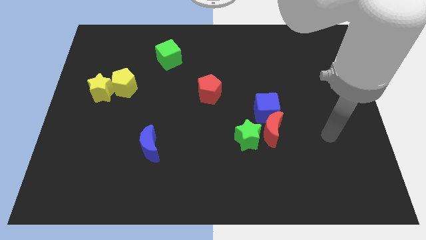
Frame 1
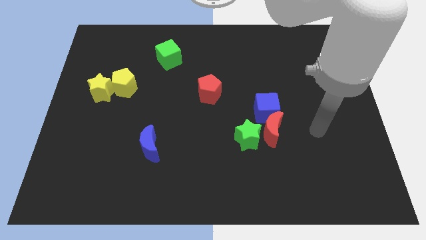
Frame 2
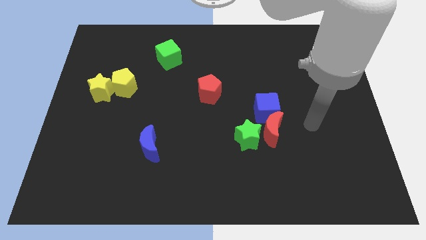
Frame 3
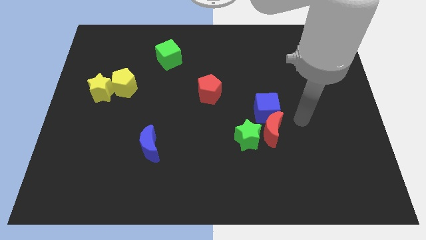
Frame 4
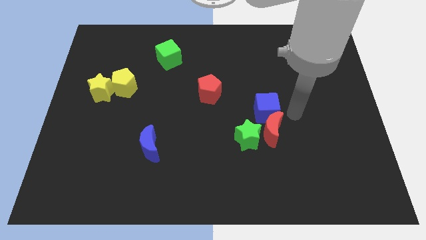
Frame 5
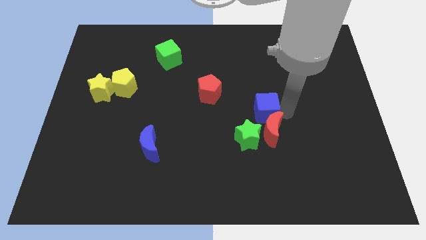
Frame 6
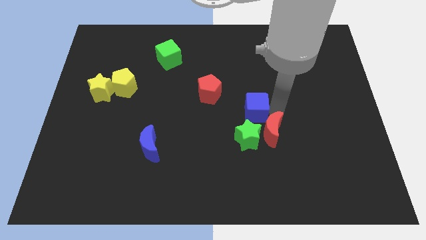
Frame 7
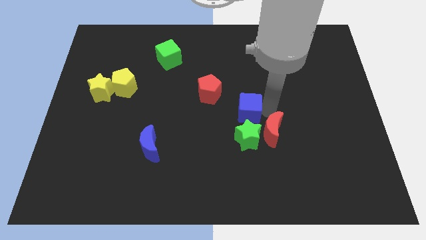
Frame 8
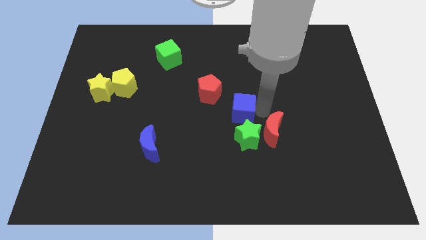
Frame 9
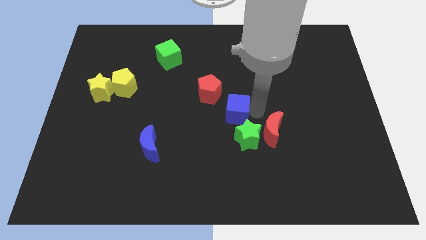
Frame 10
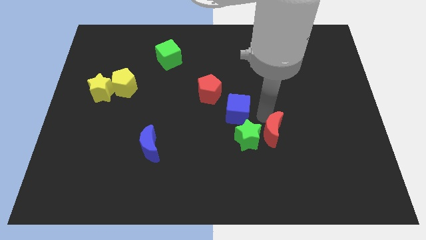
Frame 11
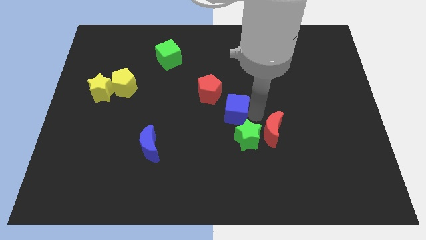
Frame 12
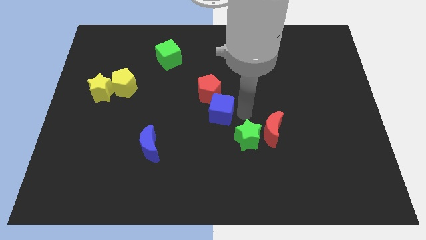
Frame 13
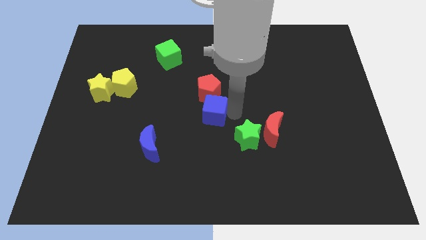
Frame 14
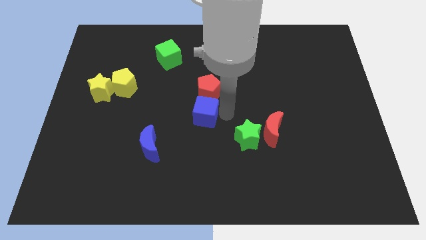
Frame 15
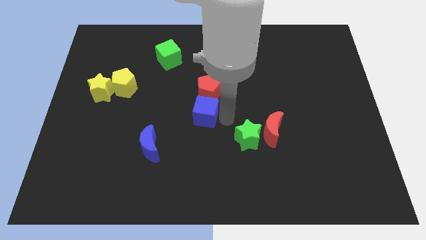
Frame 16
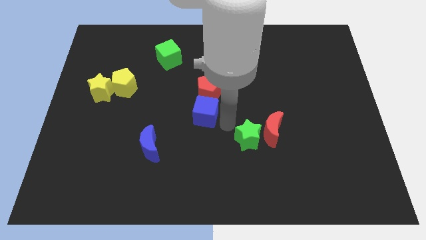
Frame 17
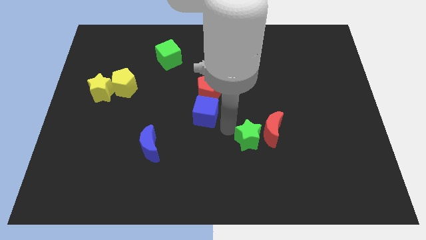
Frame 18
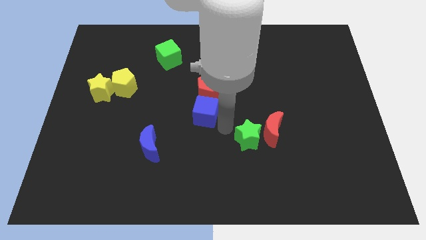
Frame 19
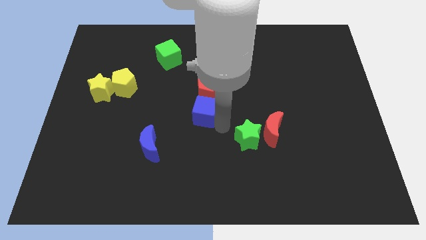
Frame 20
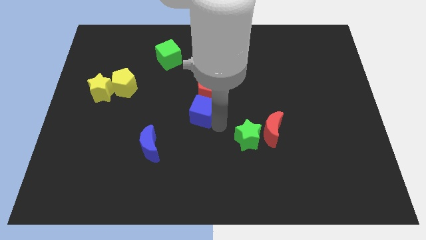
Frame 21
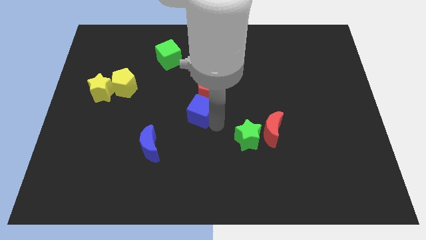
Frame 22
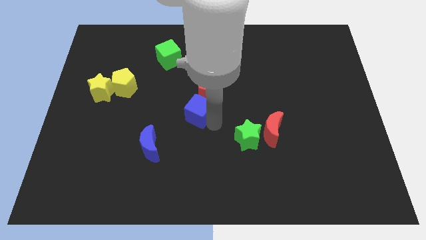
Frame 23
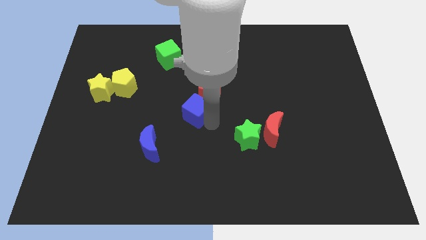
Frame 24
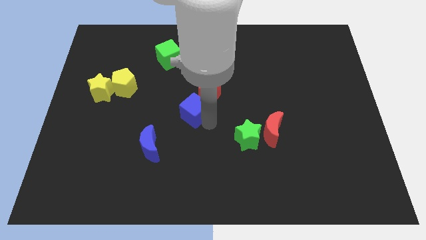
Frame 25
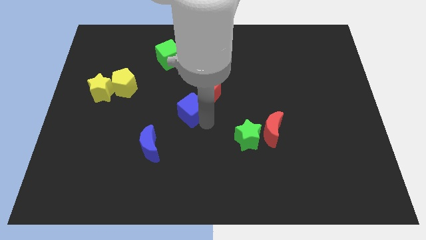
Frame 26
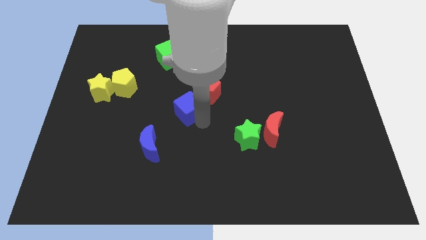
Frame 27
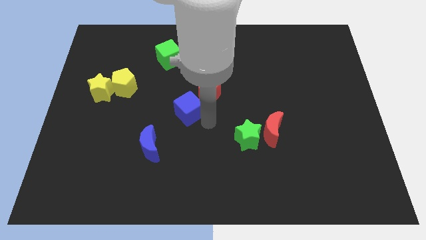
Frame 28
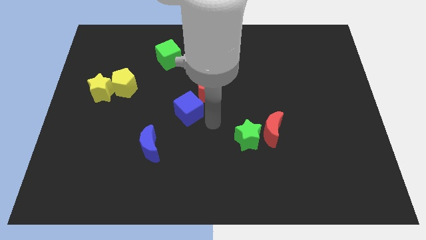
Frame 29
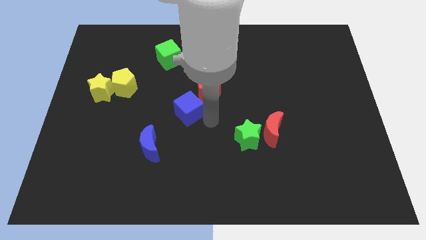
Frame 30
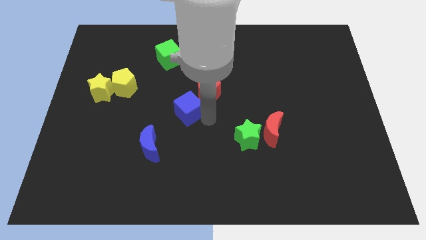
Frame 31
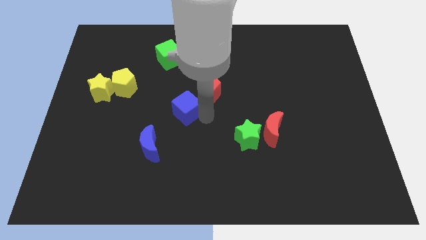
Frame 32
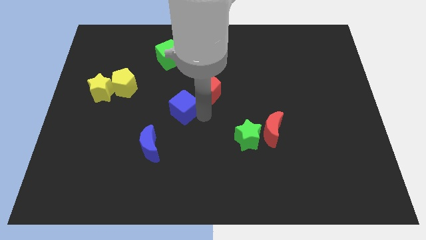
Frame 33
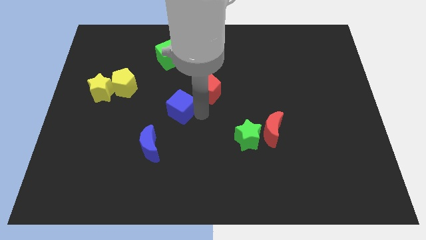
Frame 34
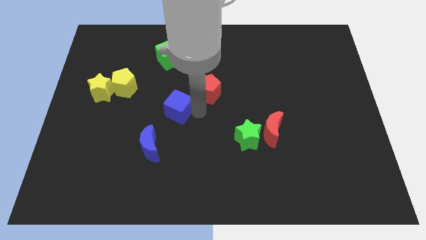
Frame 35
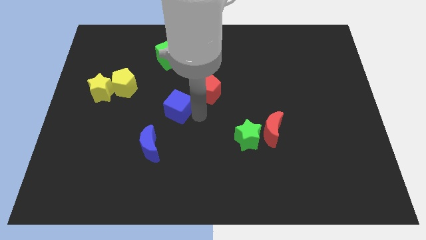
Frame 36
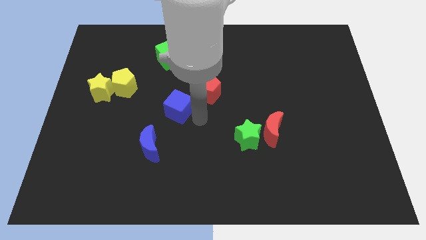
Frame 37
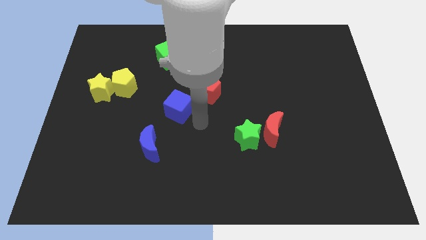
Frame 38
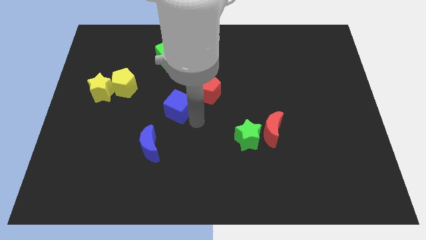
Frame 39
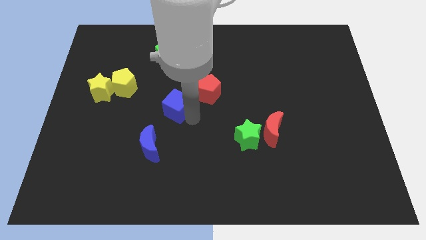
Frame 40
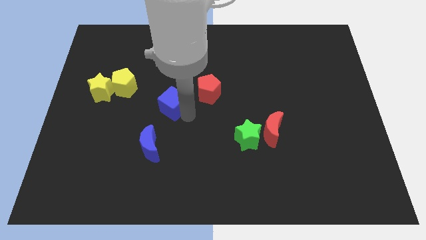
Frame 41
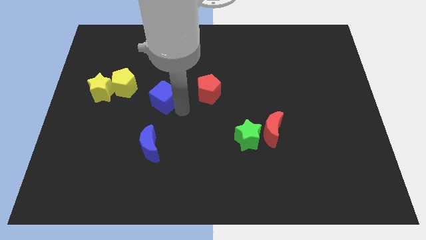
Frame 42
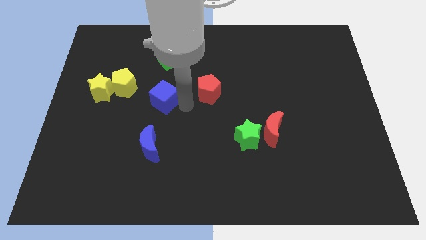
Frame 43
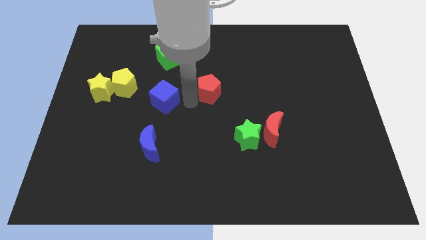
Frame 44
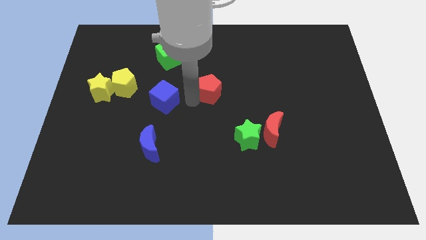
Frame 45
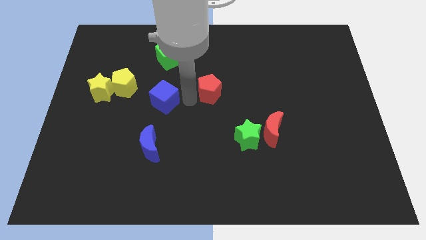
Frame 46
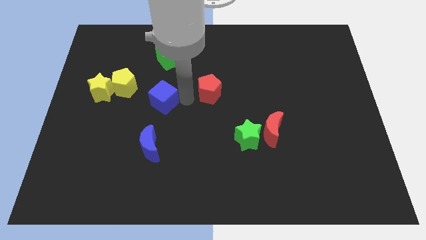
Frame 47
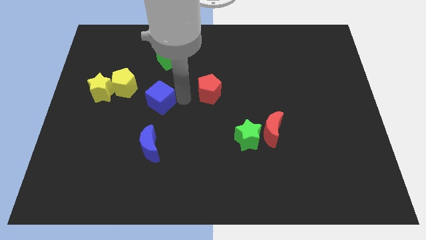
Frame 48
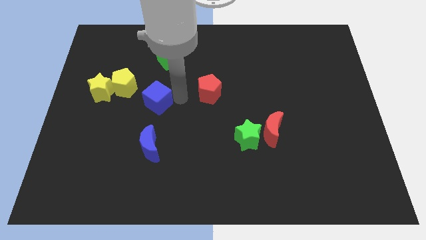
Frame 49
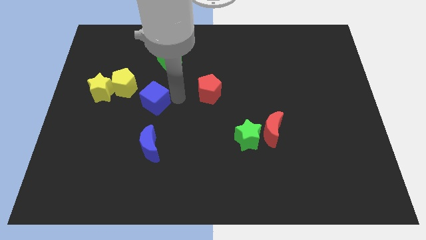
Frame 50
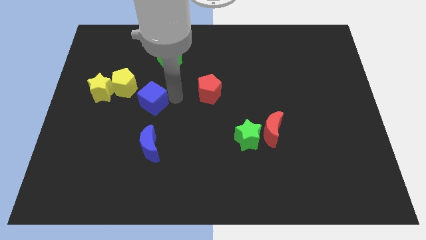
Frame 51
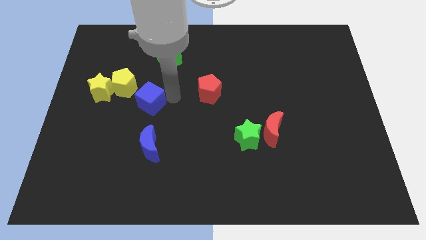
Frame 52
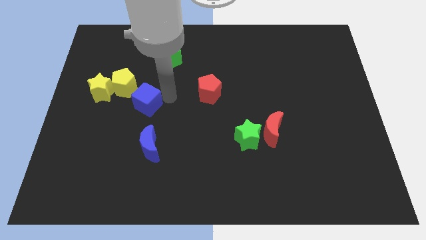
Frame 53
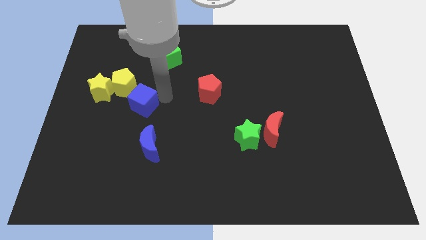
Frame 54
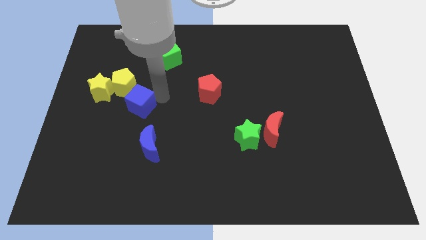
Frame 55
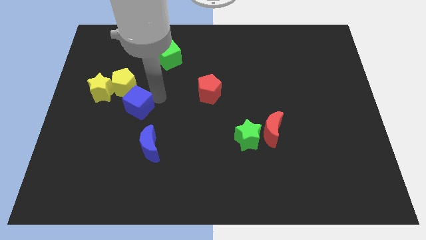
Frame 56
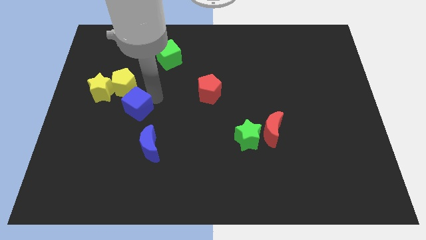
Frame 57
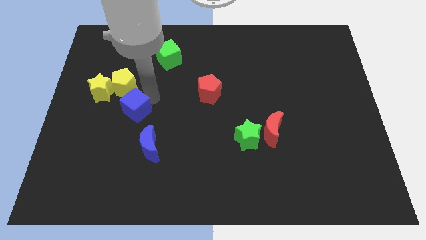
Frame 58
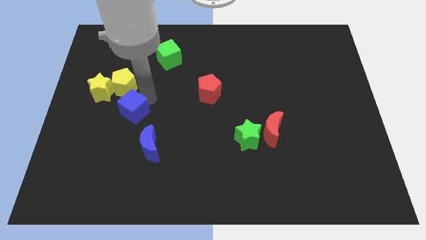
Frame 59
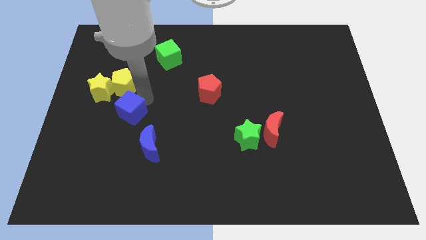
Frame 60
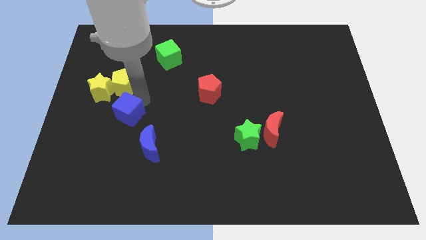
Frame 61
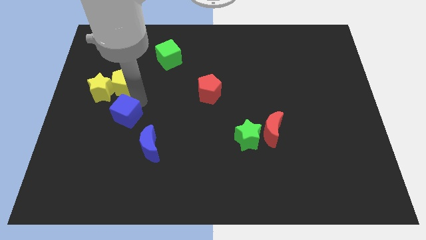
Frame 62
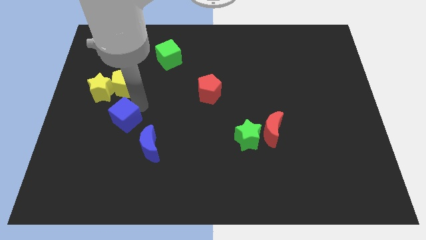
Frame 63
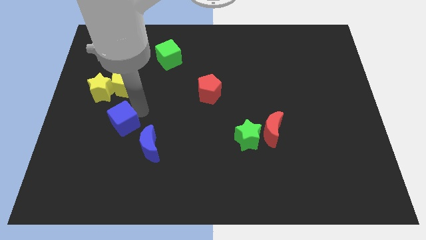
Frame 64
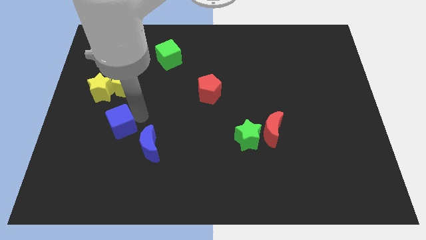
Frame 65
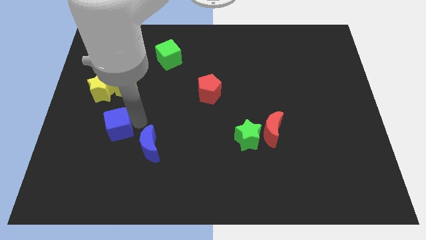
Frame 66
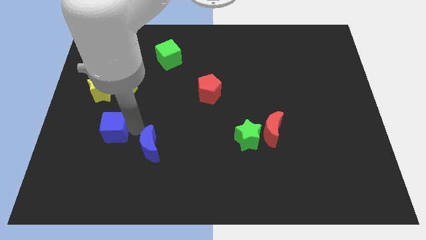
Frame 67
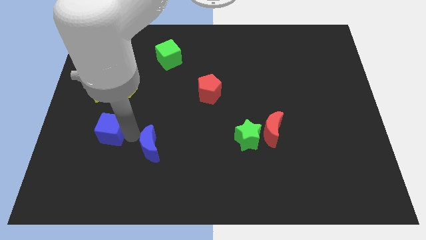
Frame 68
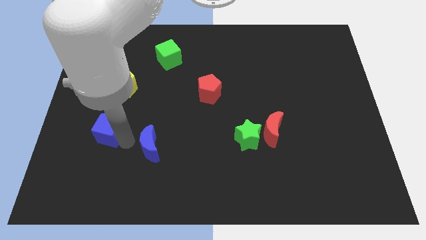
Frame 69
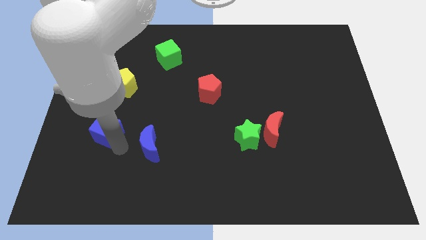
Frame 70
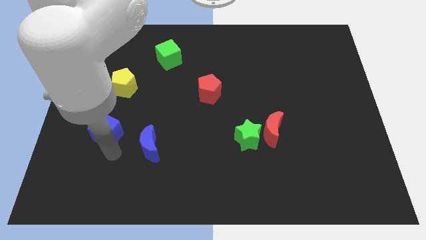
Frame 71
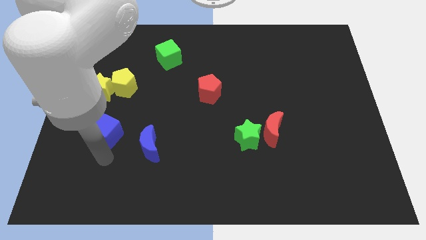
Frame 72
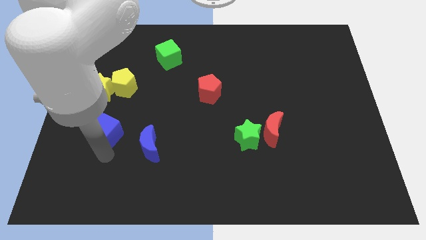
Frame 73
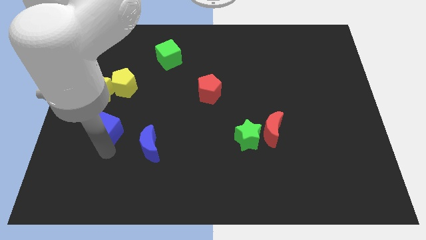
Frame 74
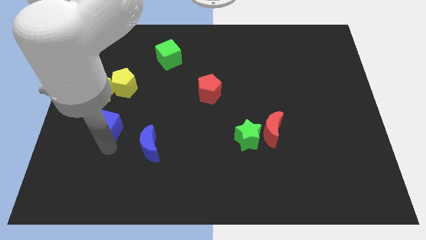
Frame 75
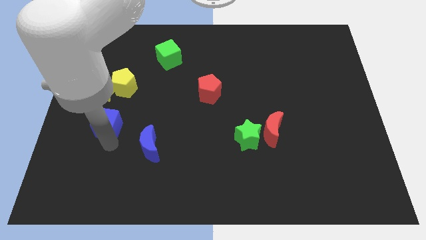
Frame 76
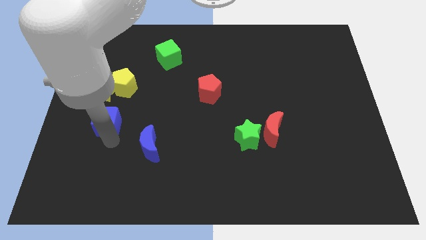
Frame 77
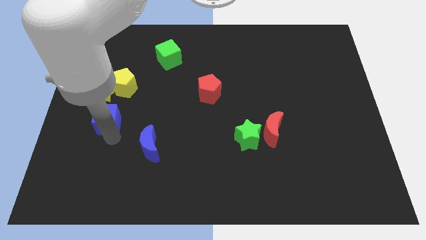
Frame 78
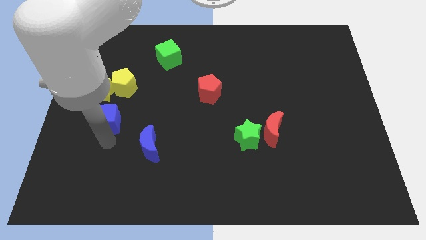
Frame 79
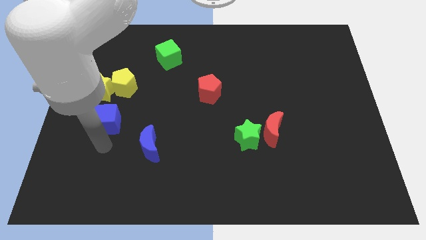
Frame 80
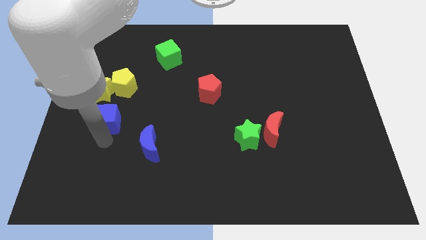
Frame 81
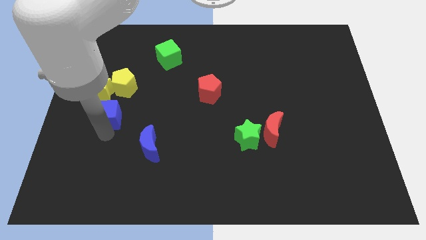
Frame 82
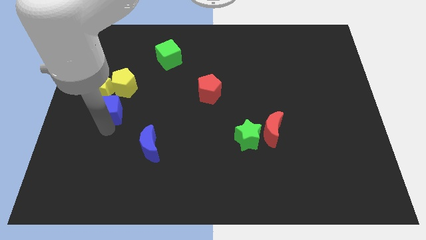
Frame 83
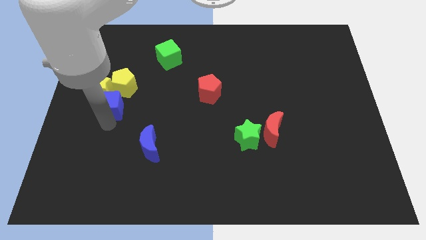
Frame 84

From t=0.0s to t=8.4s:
slide the blue cube close to the yellow star
